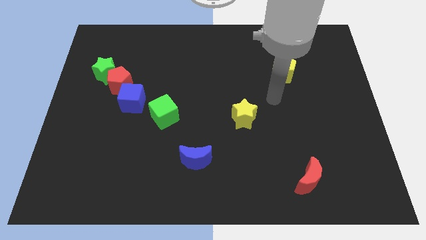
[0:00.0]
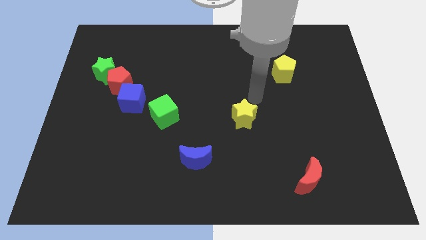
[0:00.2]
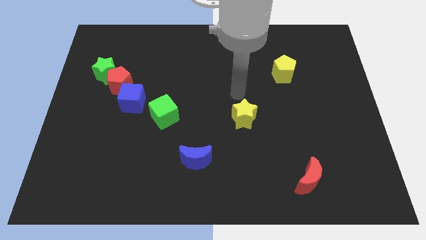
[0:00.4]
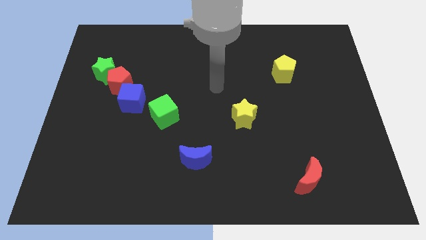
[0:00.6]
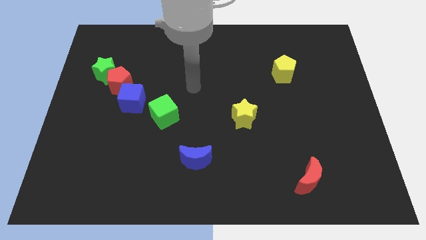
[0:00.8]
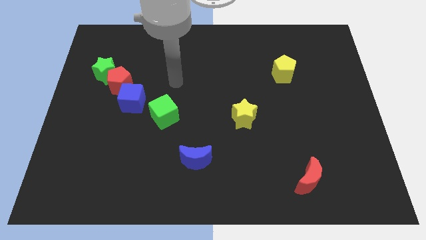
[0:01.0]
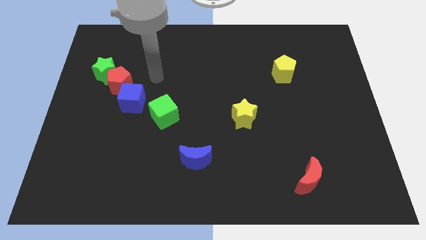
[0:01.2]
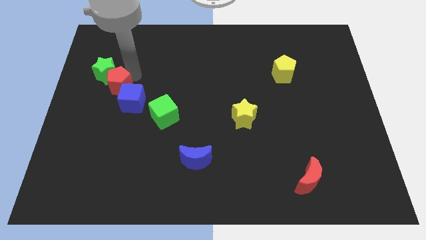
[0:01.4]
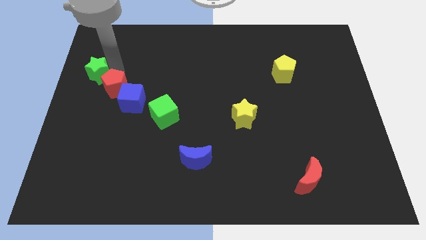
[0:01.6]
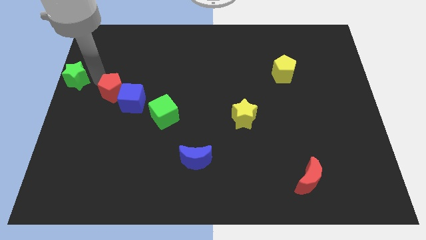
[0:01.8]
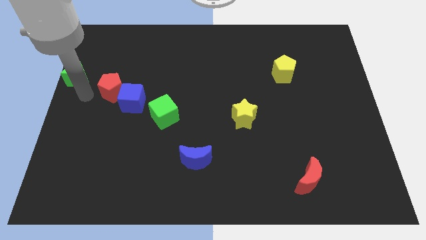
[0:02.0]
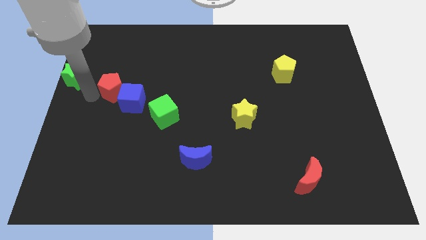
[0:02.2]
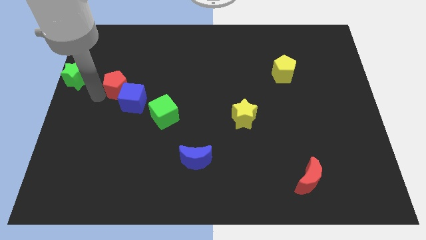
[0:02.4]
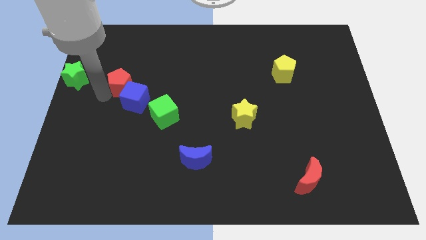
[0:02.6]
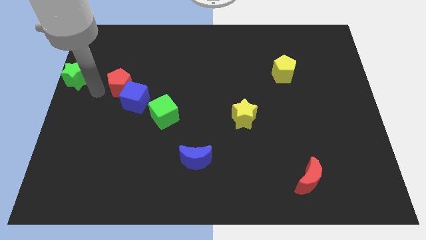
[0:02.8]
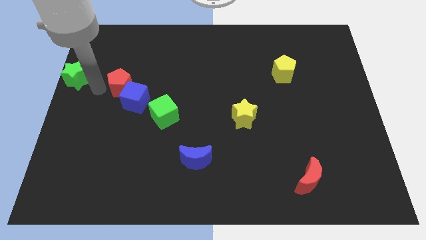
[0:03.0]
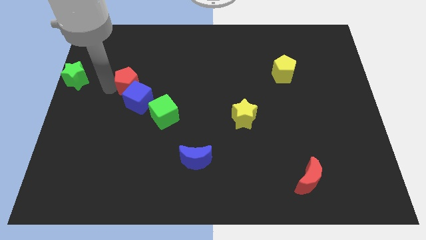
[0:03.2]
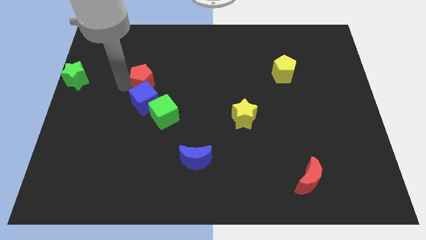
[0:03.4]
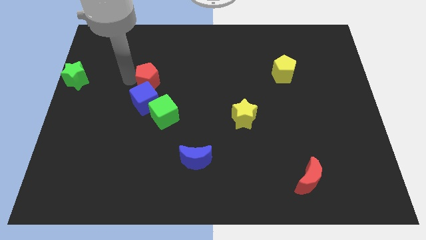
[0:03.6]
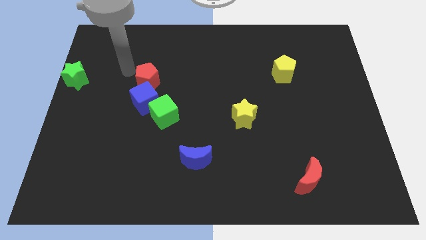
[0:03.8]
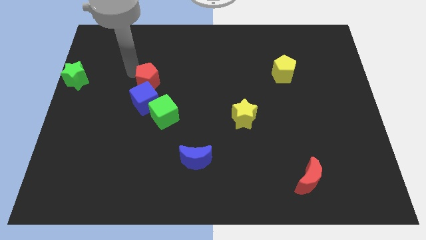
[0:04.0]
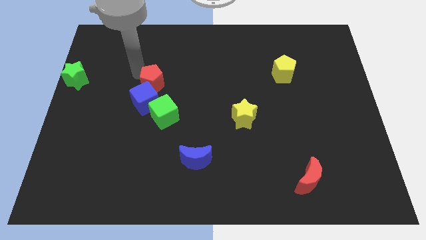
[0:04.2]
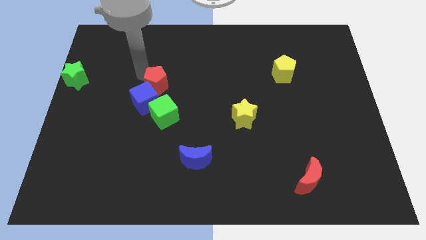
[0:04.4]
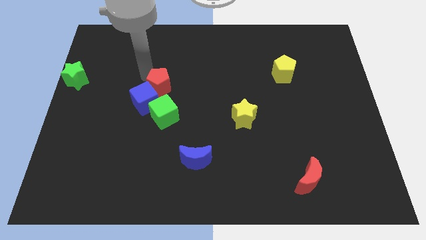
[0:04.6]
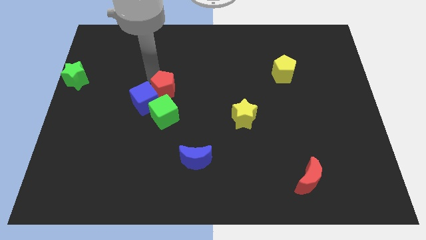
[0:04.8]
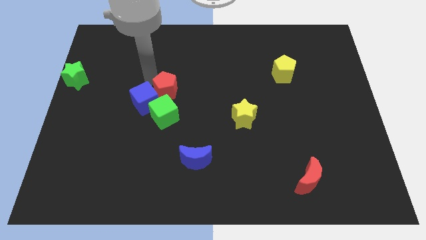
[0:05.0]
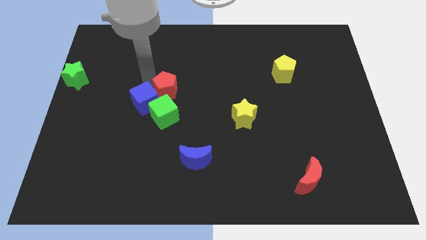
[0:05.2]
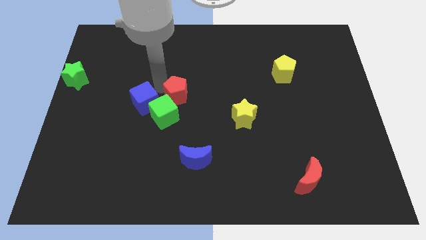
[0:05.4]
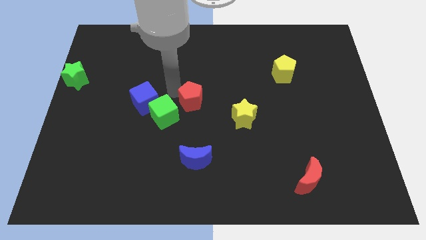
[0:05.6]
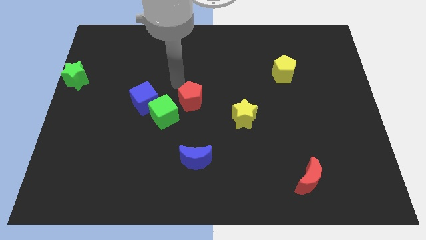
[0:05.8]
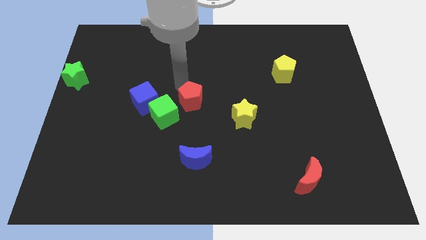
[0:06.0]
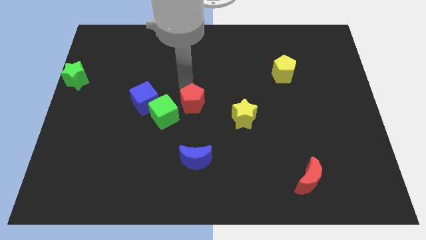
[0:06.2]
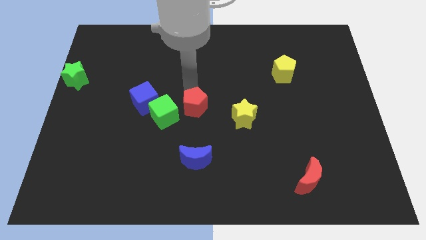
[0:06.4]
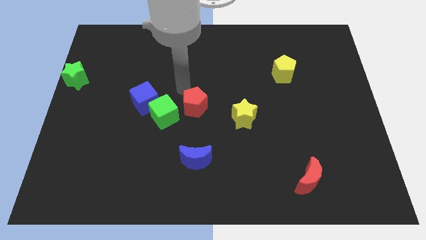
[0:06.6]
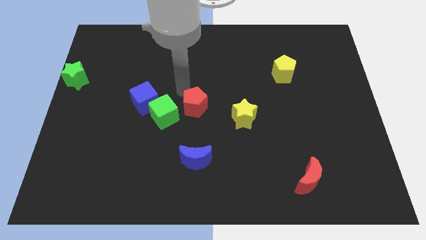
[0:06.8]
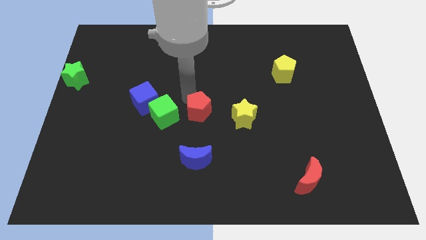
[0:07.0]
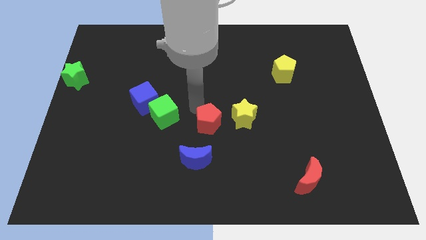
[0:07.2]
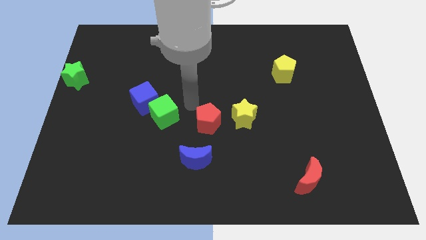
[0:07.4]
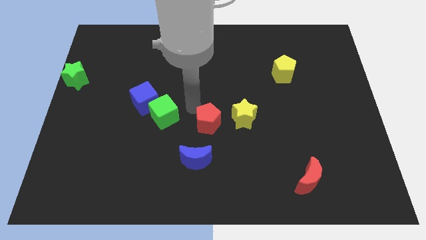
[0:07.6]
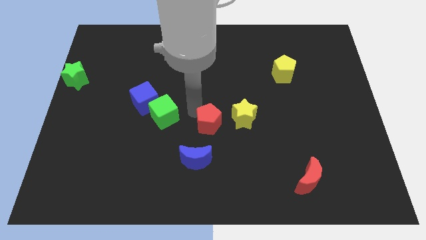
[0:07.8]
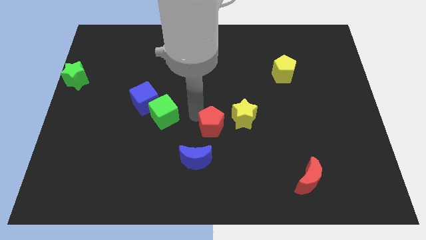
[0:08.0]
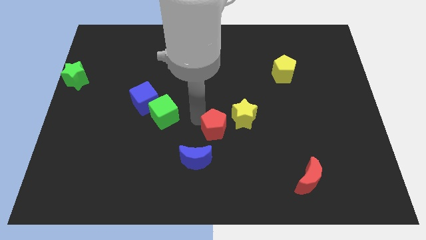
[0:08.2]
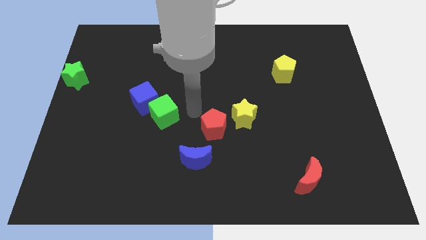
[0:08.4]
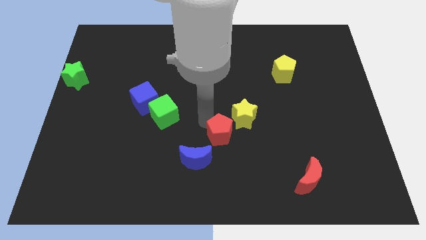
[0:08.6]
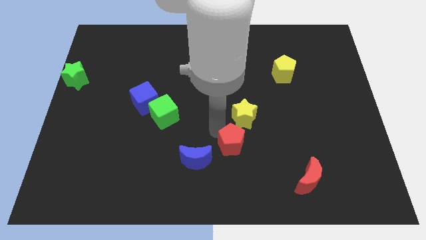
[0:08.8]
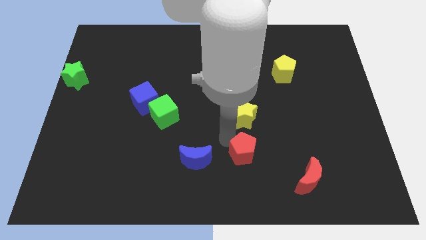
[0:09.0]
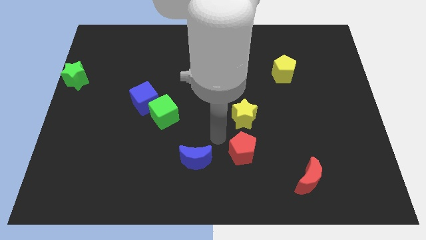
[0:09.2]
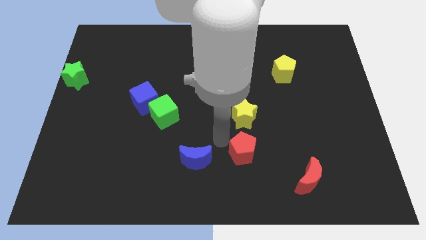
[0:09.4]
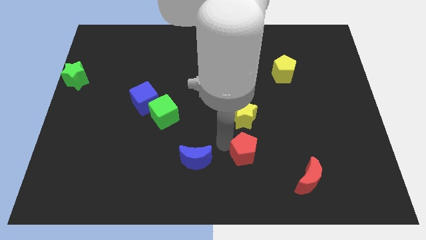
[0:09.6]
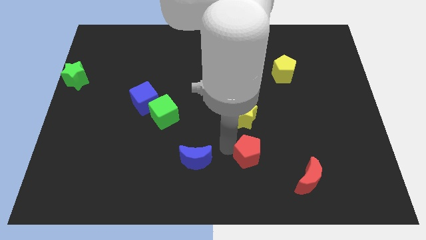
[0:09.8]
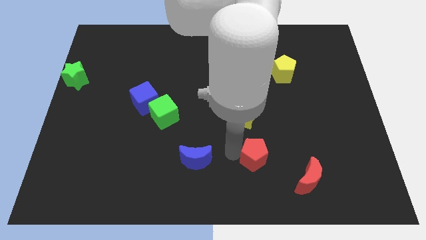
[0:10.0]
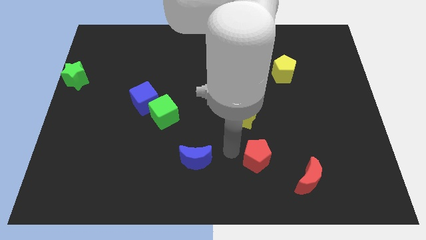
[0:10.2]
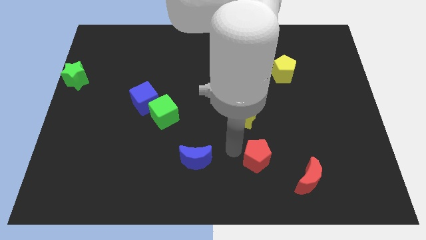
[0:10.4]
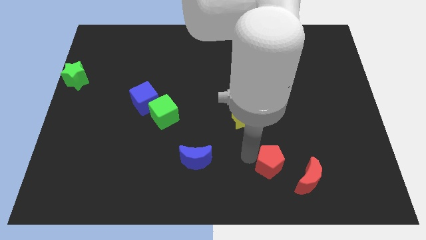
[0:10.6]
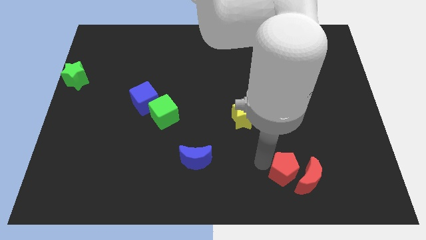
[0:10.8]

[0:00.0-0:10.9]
put the red pentagon to the red moon
